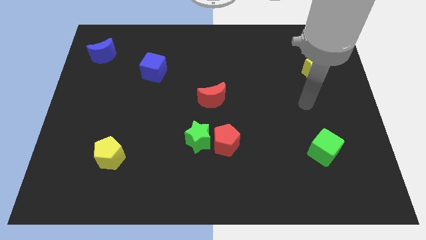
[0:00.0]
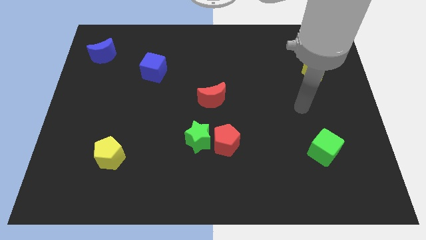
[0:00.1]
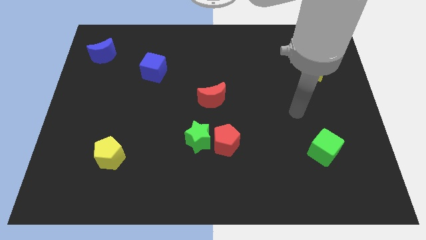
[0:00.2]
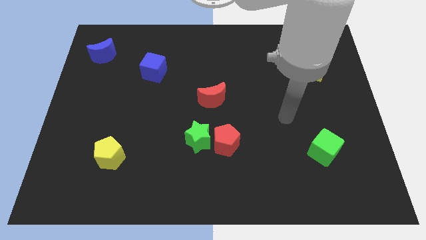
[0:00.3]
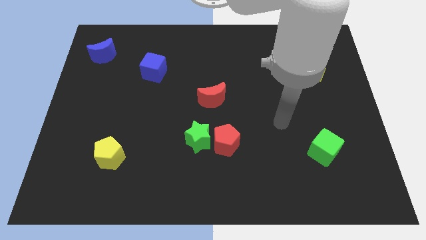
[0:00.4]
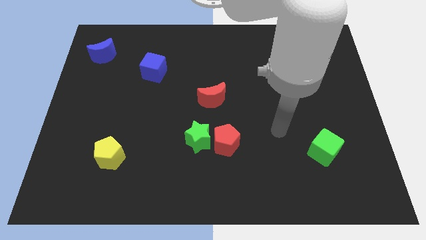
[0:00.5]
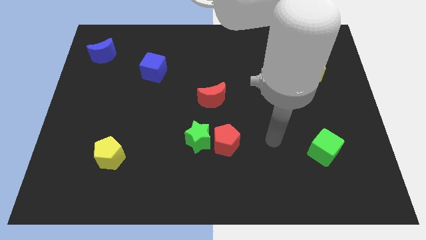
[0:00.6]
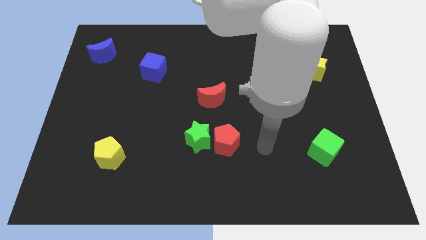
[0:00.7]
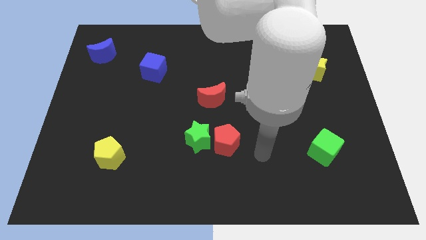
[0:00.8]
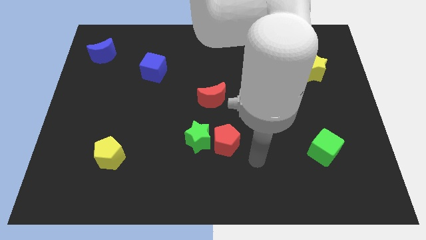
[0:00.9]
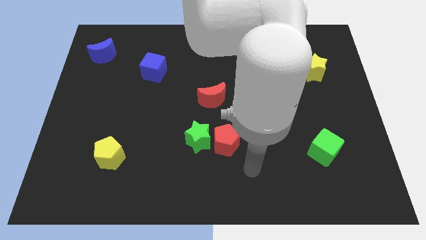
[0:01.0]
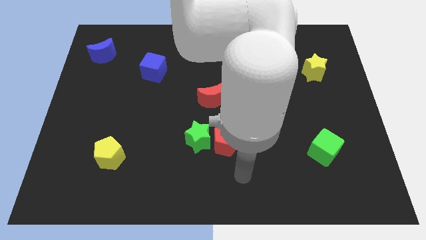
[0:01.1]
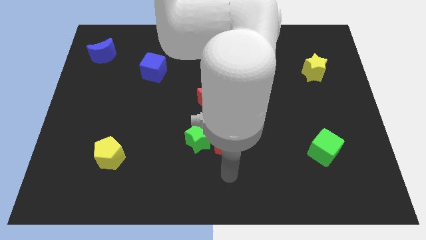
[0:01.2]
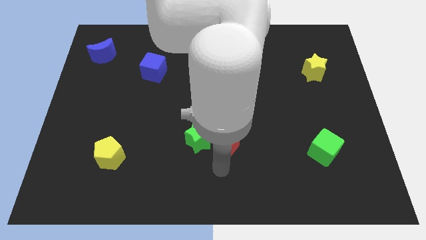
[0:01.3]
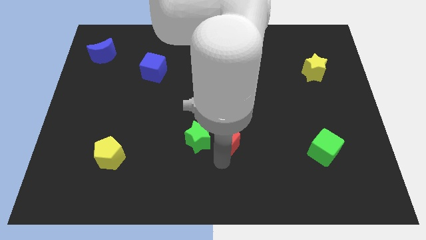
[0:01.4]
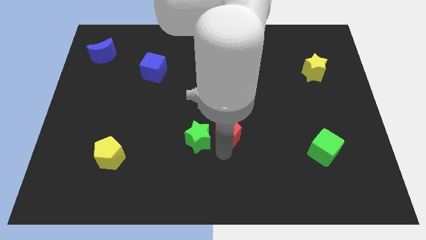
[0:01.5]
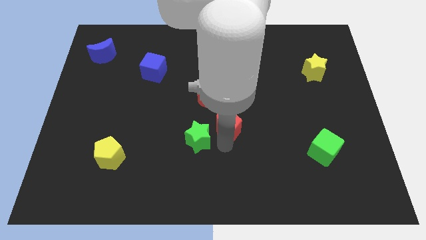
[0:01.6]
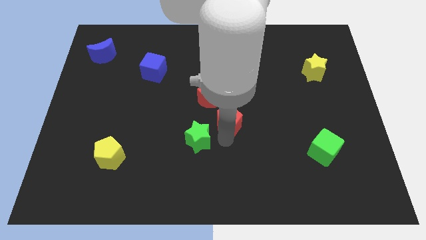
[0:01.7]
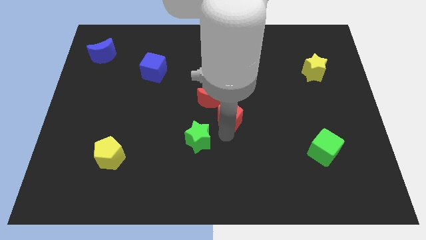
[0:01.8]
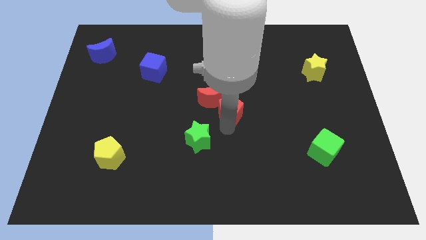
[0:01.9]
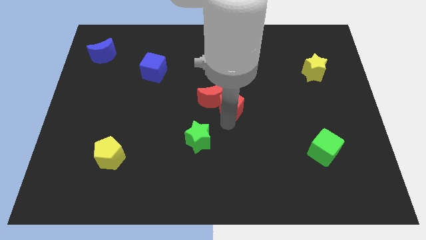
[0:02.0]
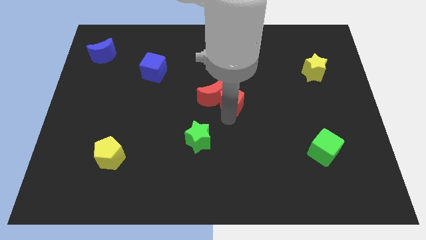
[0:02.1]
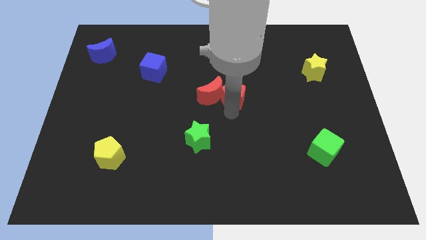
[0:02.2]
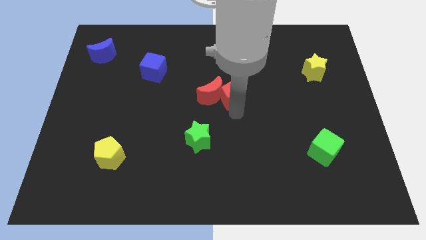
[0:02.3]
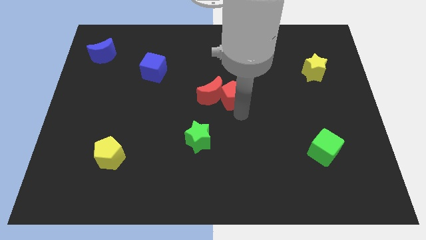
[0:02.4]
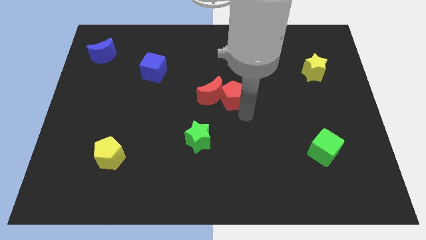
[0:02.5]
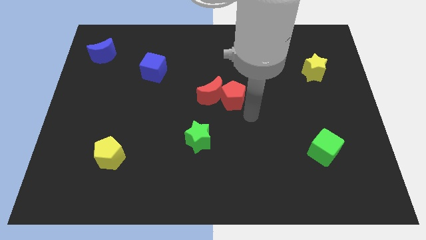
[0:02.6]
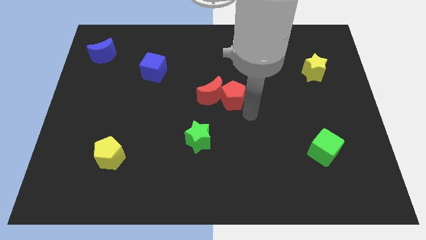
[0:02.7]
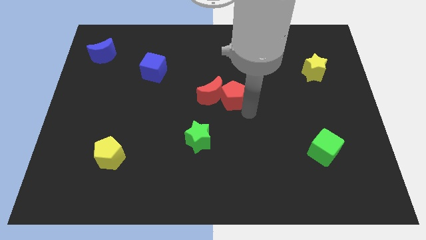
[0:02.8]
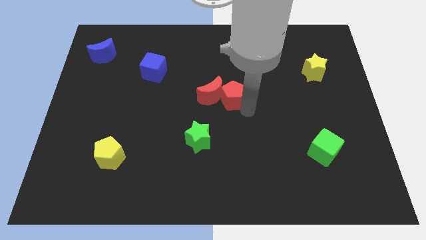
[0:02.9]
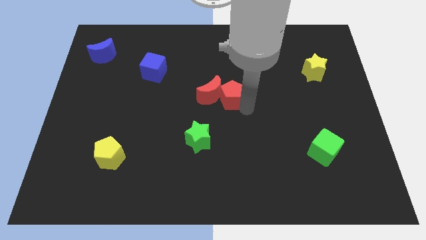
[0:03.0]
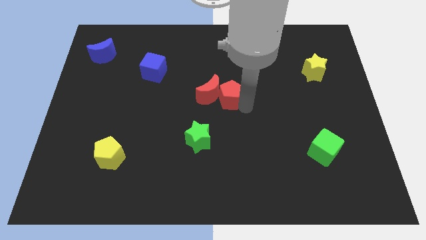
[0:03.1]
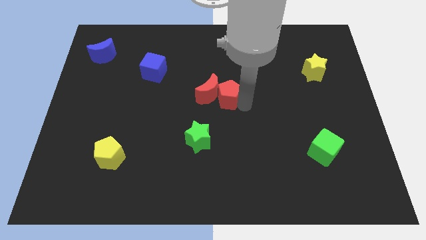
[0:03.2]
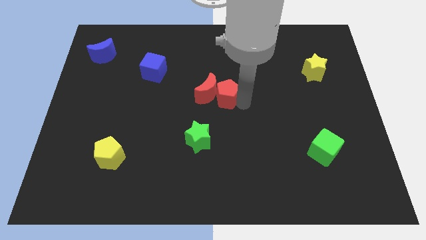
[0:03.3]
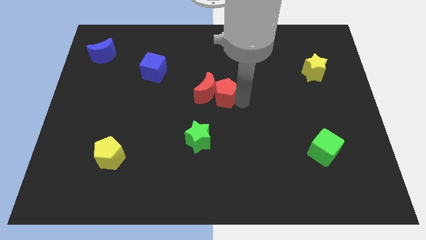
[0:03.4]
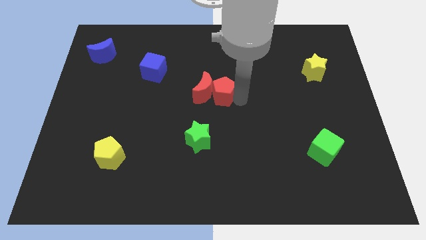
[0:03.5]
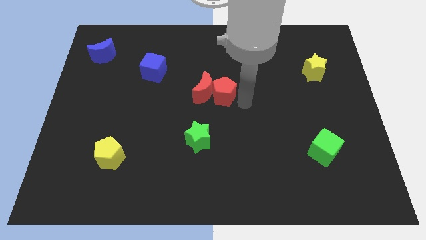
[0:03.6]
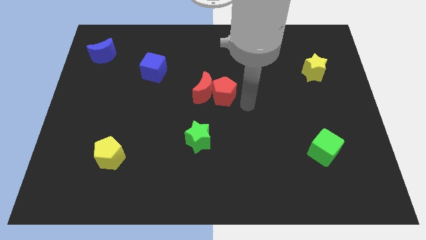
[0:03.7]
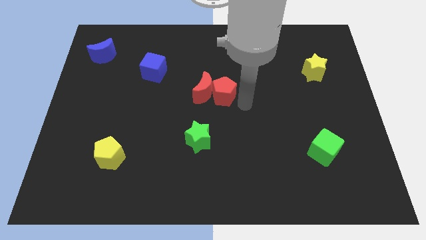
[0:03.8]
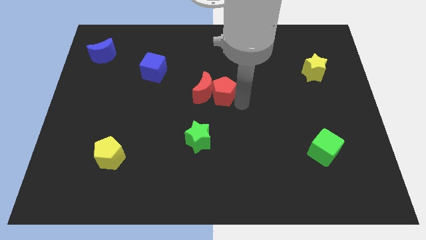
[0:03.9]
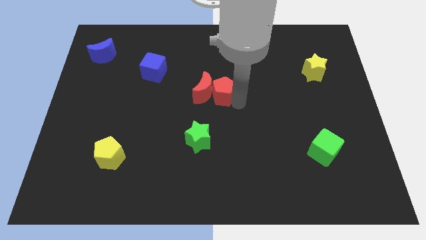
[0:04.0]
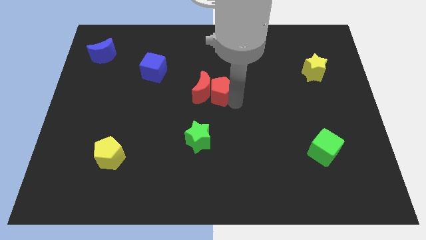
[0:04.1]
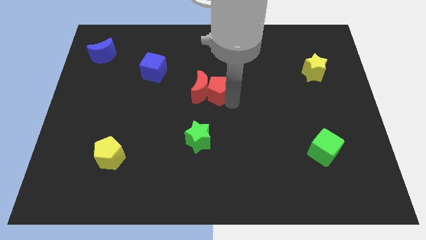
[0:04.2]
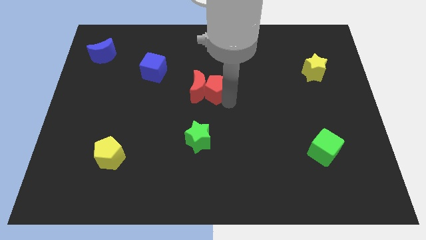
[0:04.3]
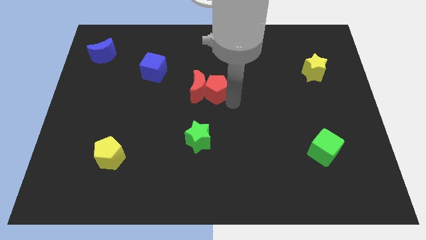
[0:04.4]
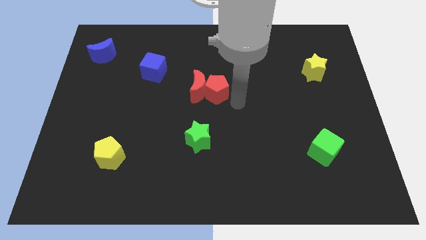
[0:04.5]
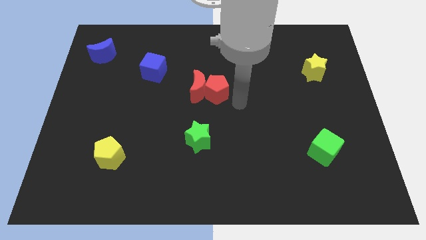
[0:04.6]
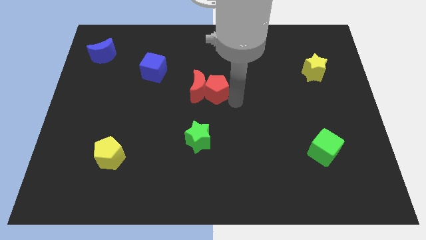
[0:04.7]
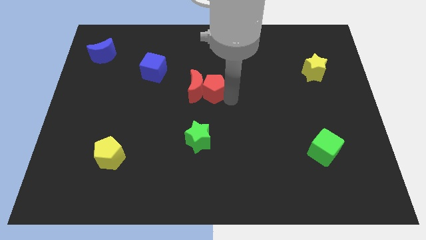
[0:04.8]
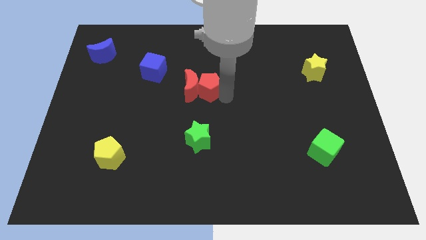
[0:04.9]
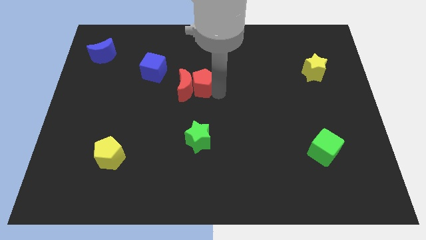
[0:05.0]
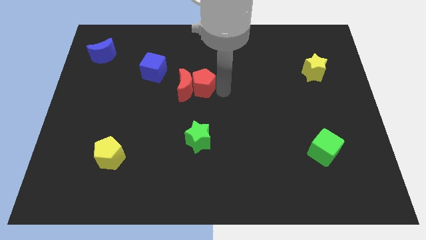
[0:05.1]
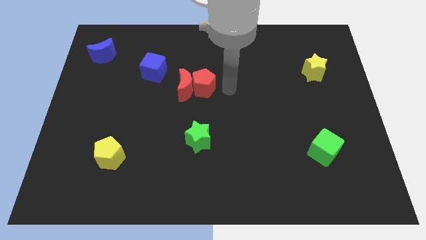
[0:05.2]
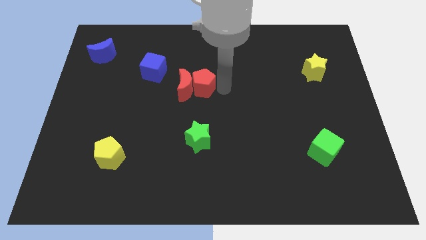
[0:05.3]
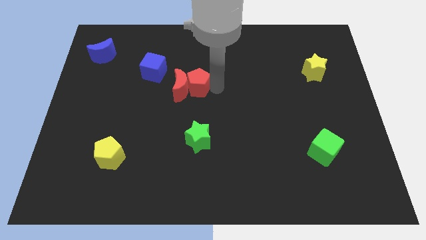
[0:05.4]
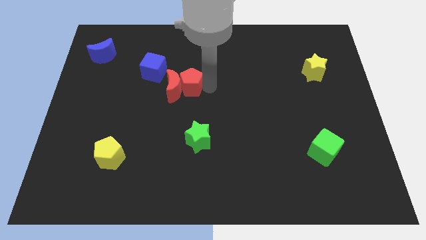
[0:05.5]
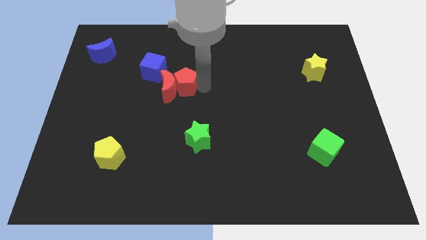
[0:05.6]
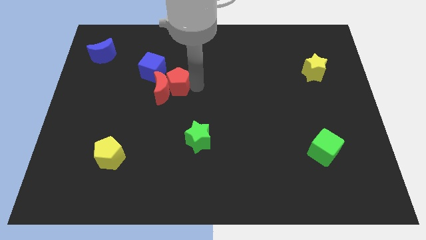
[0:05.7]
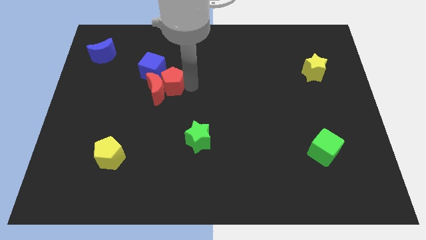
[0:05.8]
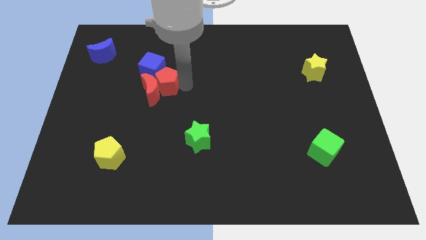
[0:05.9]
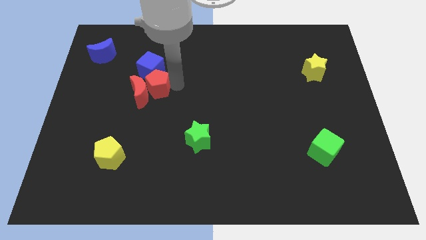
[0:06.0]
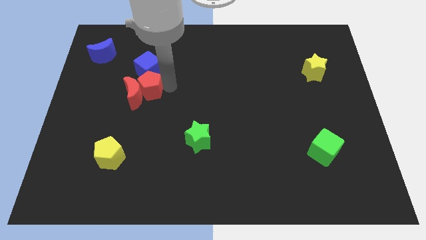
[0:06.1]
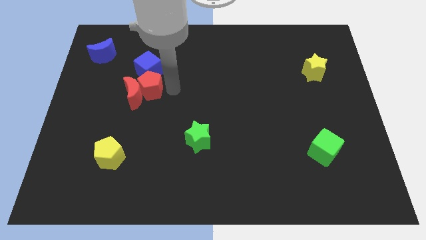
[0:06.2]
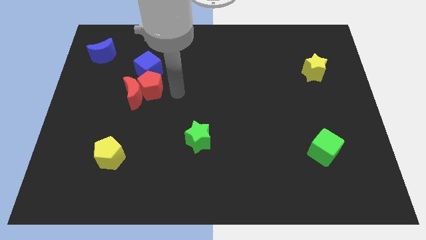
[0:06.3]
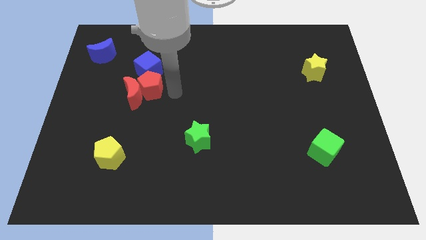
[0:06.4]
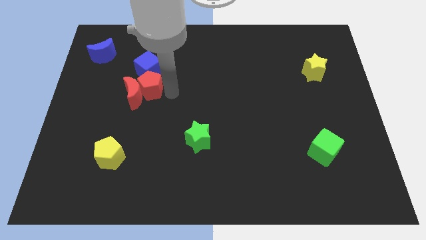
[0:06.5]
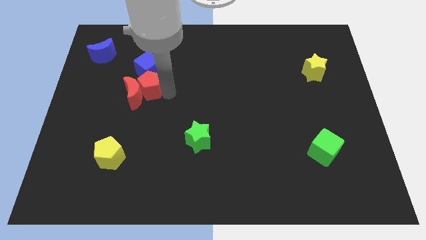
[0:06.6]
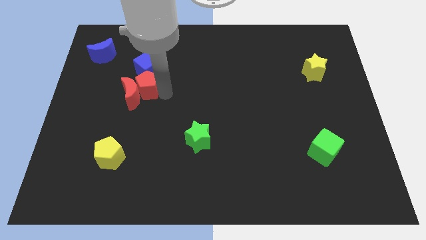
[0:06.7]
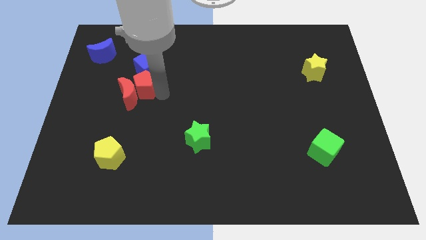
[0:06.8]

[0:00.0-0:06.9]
put the red pentagon to the bottom left side of the blue cube
